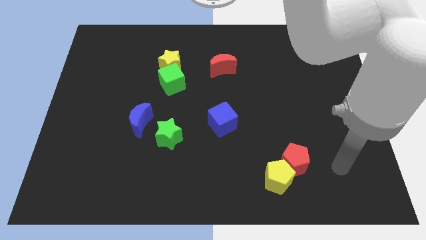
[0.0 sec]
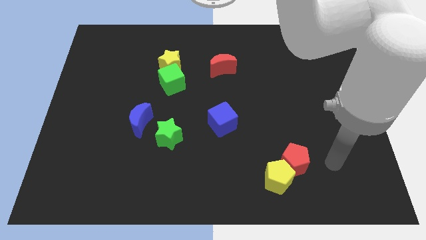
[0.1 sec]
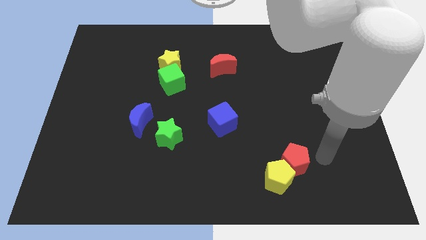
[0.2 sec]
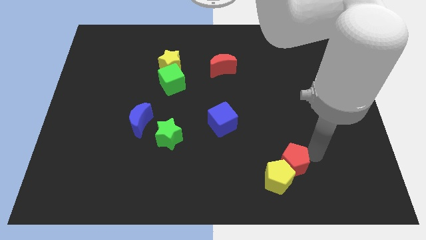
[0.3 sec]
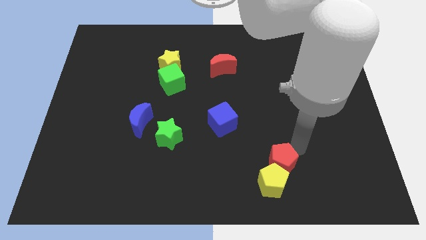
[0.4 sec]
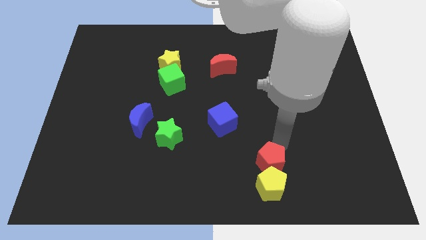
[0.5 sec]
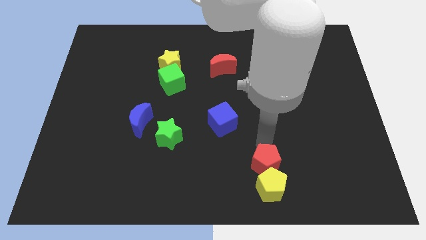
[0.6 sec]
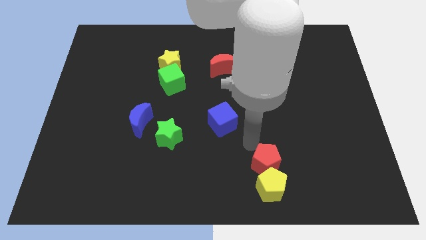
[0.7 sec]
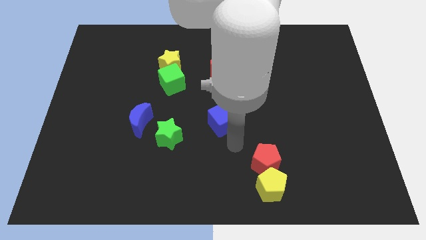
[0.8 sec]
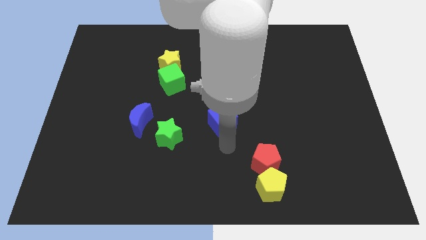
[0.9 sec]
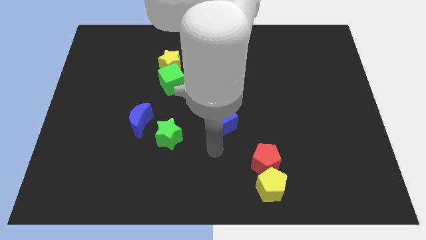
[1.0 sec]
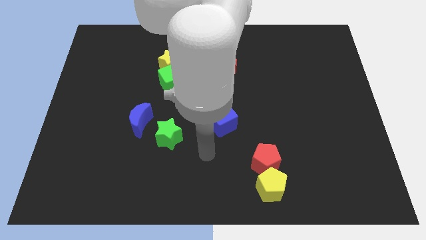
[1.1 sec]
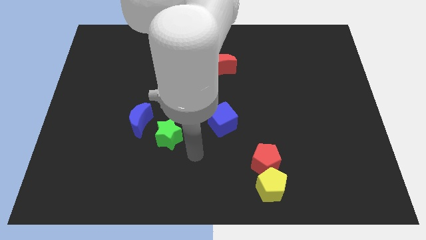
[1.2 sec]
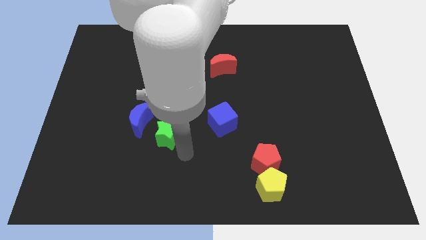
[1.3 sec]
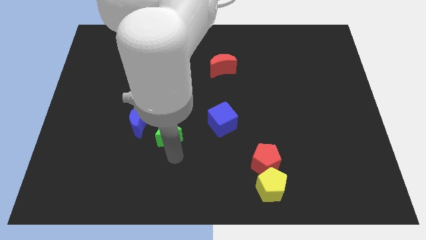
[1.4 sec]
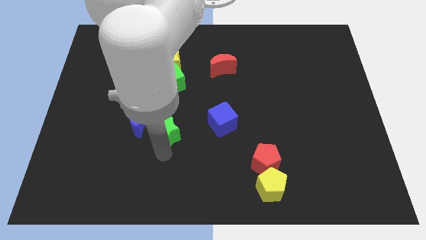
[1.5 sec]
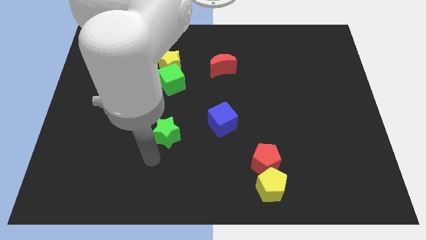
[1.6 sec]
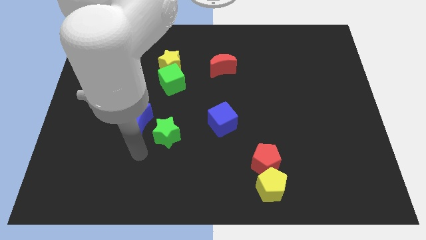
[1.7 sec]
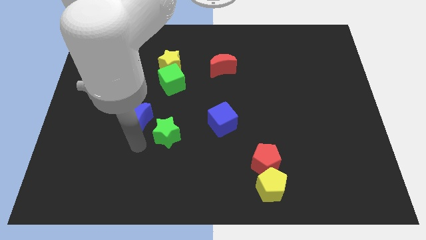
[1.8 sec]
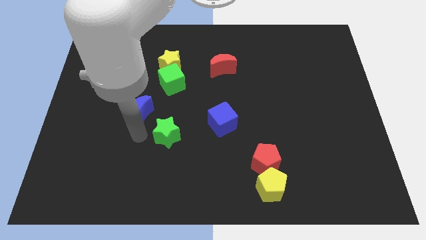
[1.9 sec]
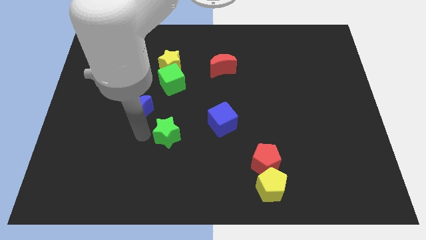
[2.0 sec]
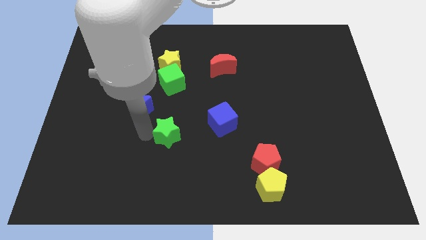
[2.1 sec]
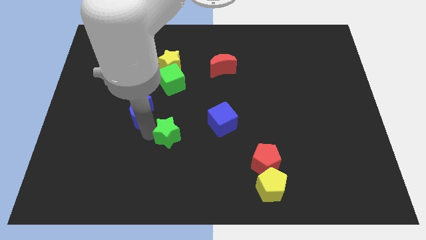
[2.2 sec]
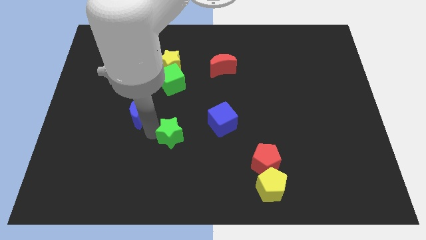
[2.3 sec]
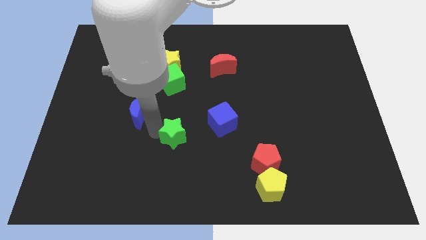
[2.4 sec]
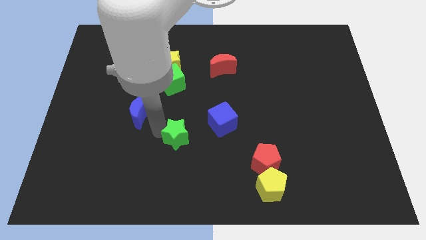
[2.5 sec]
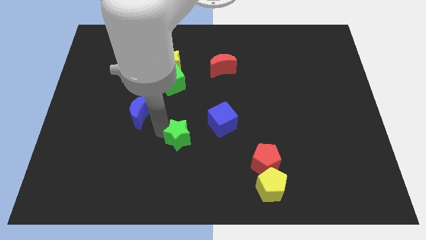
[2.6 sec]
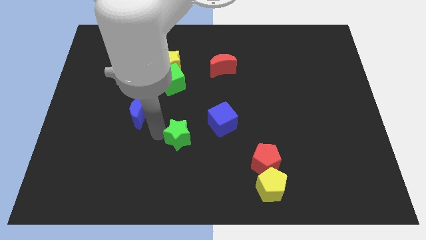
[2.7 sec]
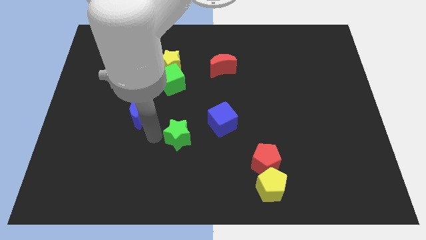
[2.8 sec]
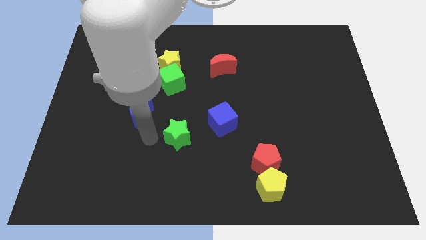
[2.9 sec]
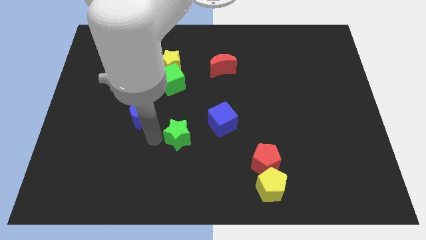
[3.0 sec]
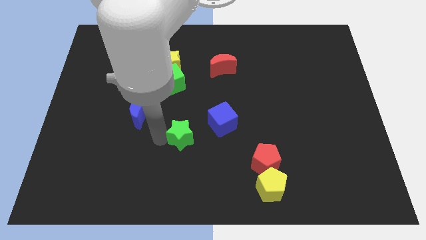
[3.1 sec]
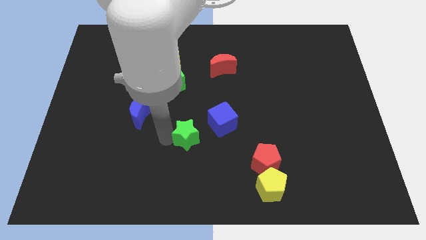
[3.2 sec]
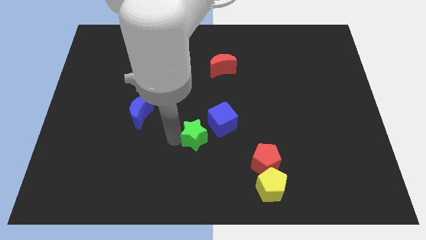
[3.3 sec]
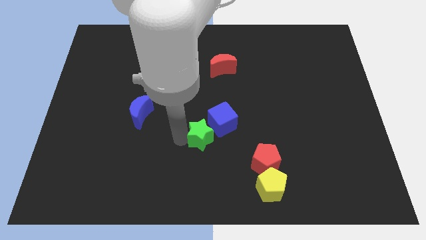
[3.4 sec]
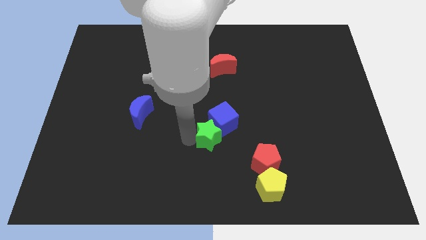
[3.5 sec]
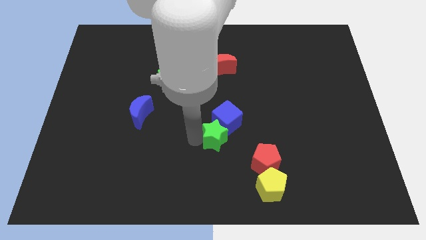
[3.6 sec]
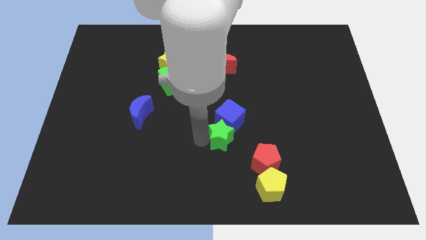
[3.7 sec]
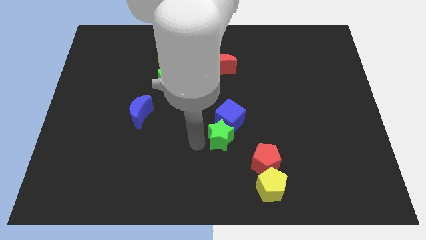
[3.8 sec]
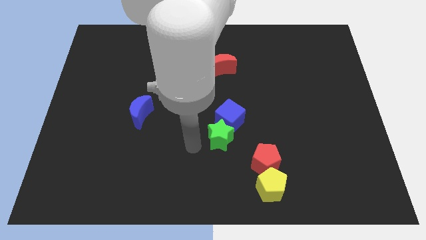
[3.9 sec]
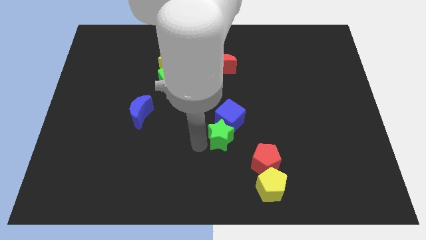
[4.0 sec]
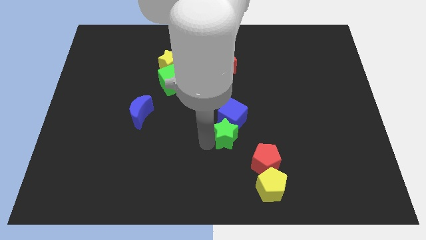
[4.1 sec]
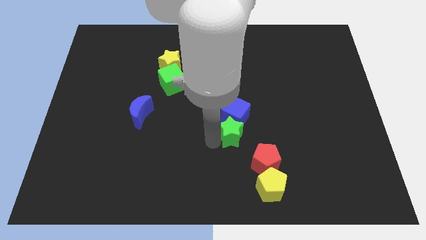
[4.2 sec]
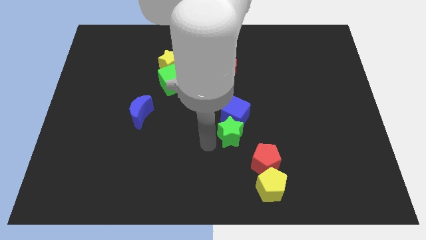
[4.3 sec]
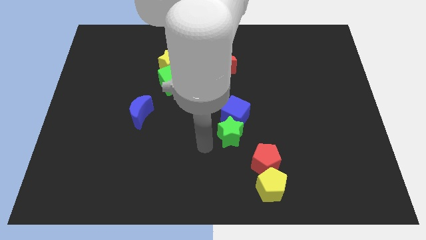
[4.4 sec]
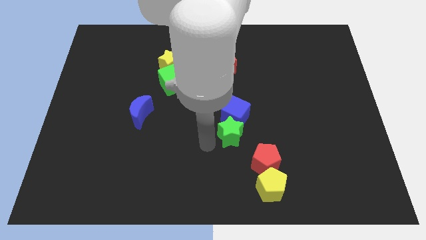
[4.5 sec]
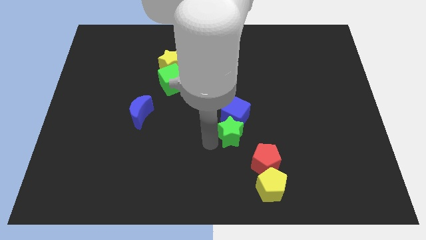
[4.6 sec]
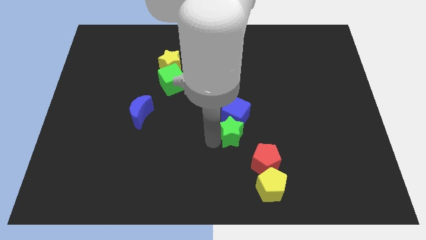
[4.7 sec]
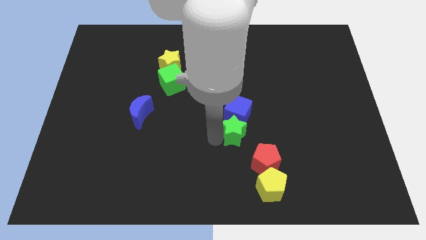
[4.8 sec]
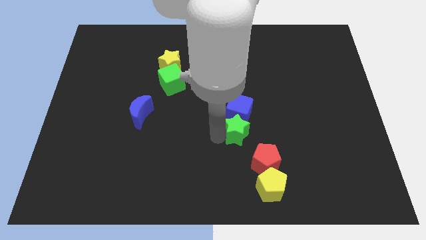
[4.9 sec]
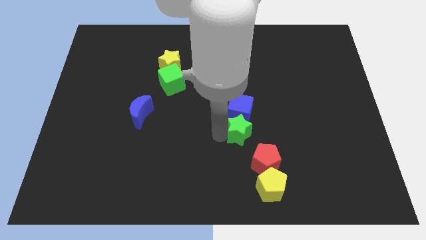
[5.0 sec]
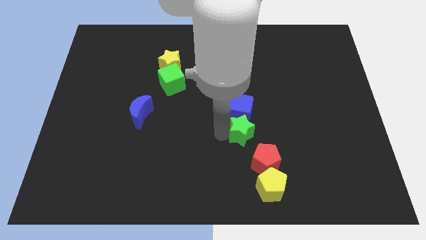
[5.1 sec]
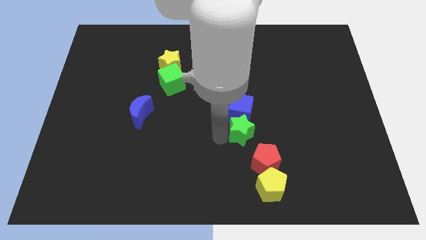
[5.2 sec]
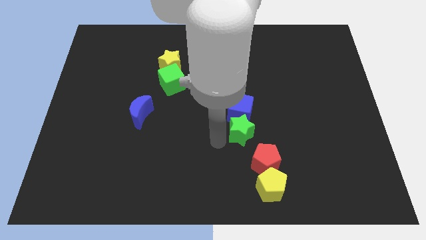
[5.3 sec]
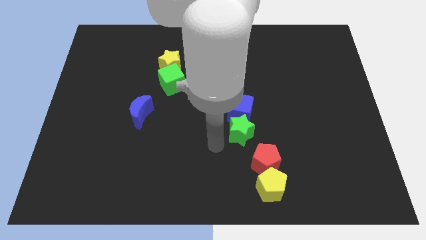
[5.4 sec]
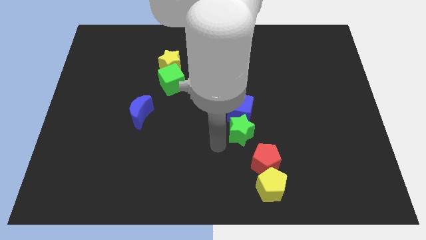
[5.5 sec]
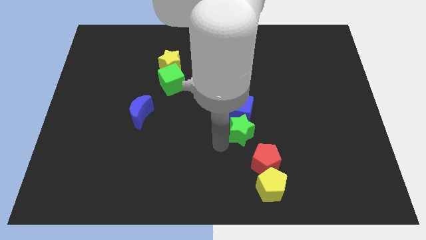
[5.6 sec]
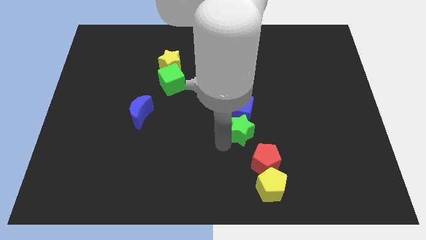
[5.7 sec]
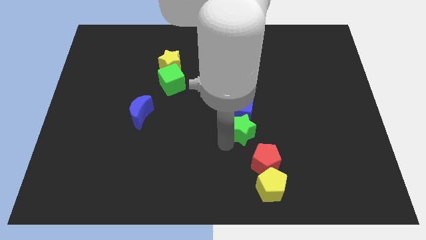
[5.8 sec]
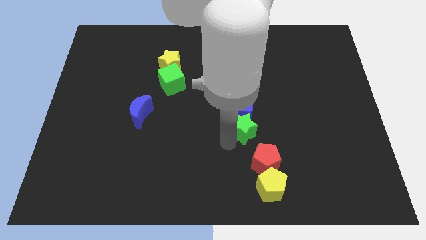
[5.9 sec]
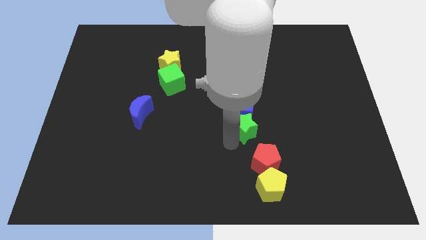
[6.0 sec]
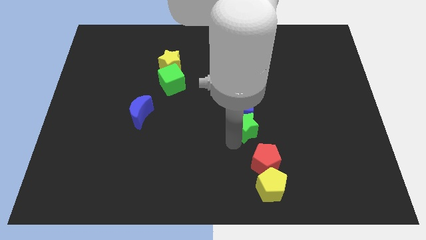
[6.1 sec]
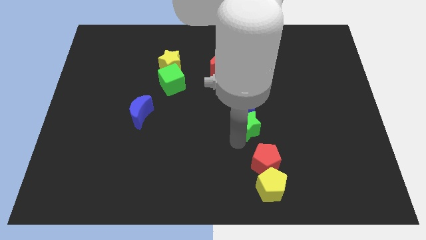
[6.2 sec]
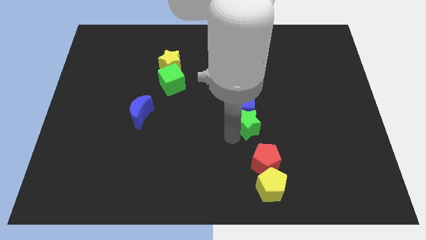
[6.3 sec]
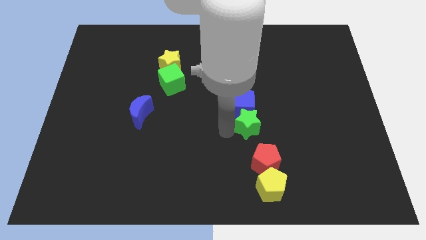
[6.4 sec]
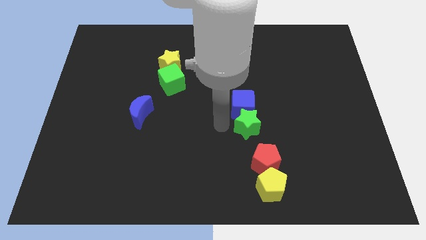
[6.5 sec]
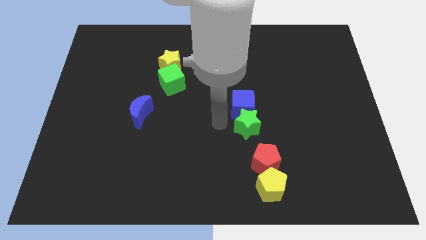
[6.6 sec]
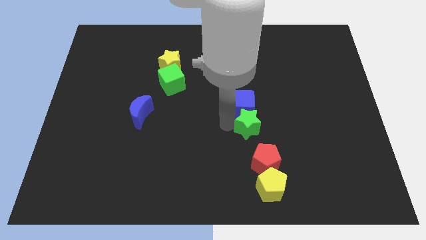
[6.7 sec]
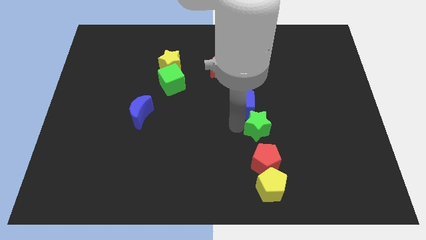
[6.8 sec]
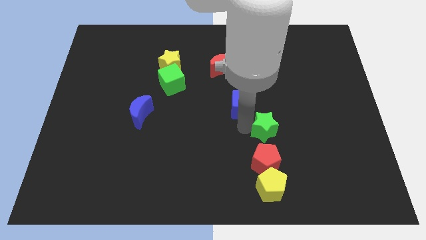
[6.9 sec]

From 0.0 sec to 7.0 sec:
move the green star right

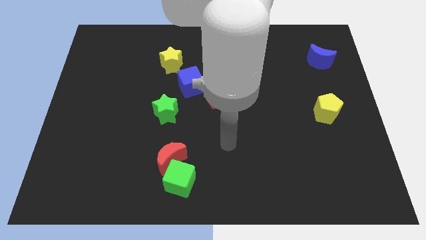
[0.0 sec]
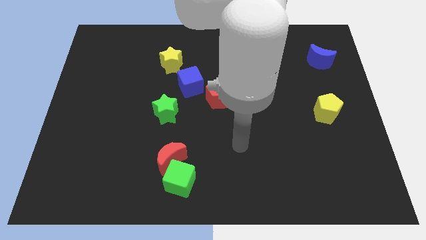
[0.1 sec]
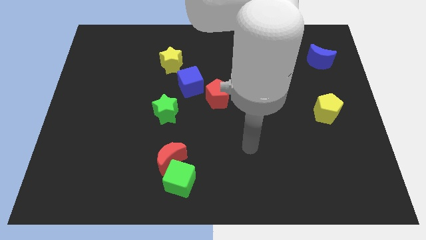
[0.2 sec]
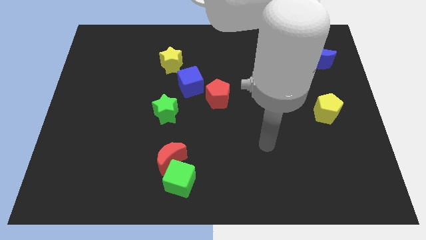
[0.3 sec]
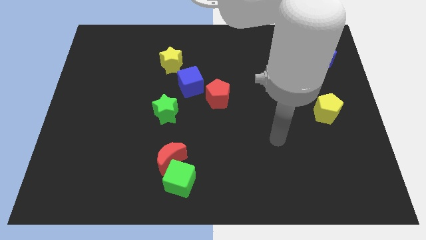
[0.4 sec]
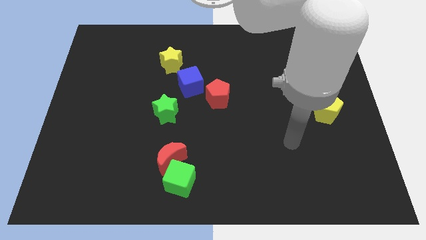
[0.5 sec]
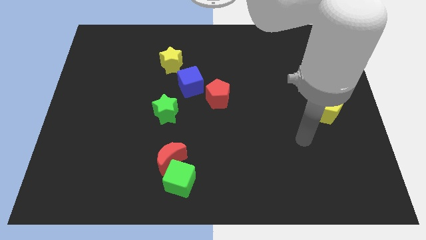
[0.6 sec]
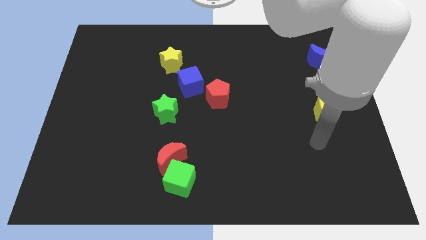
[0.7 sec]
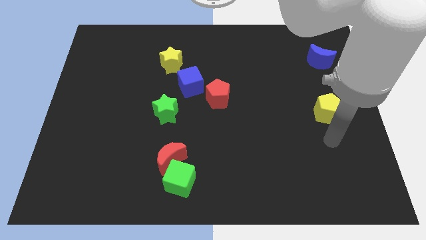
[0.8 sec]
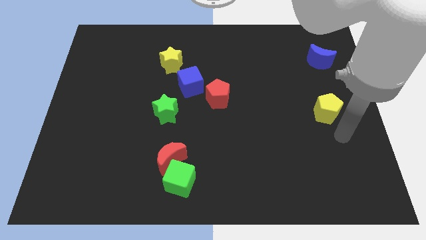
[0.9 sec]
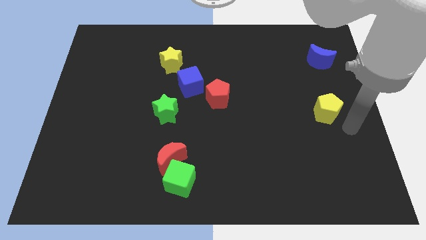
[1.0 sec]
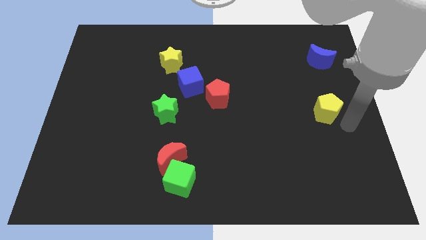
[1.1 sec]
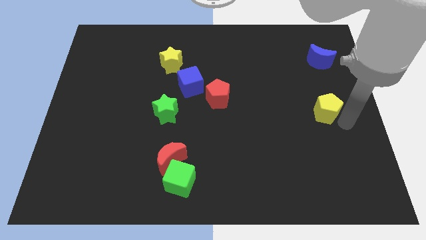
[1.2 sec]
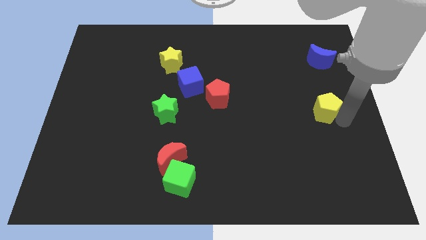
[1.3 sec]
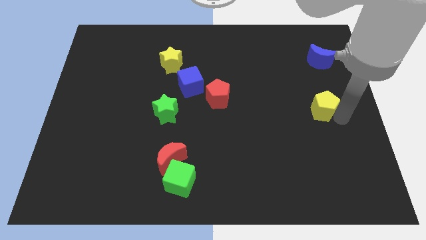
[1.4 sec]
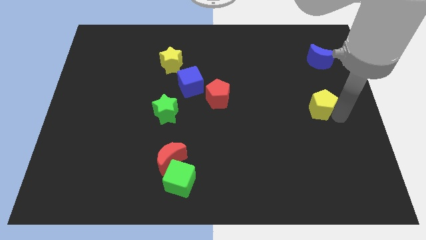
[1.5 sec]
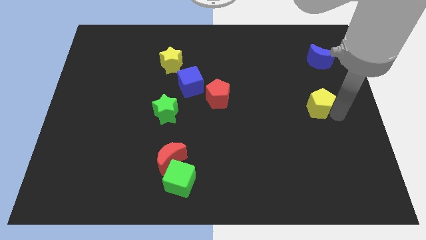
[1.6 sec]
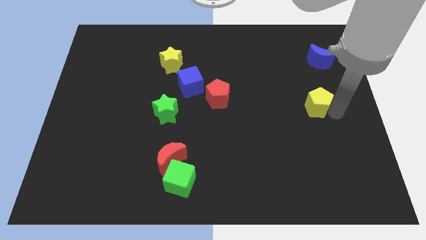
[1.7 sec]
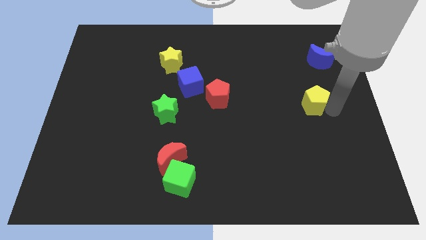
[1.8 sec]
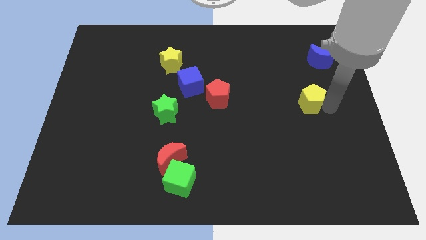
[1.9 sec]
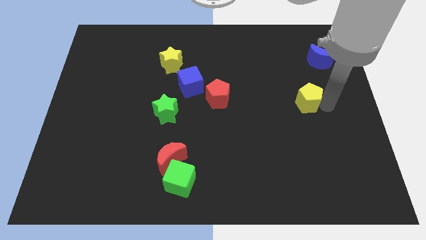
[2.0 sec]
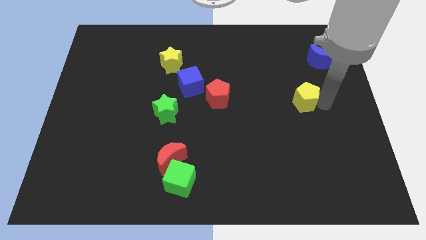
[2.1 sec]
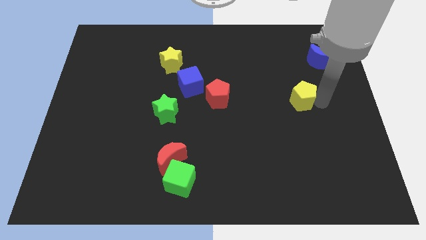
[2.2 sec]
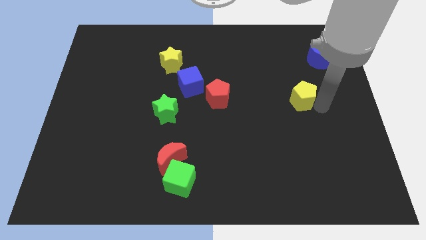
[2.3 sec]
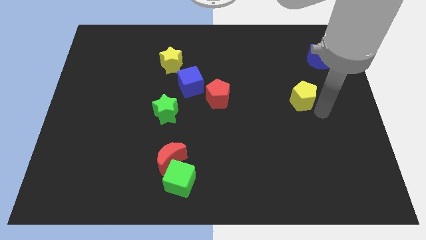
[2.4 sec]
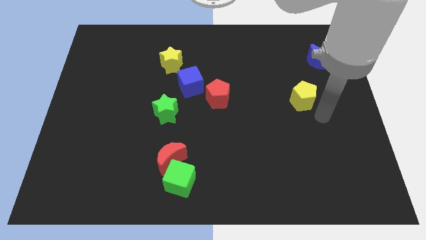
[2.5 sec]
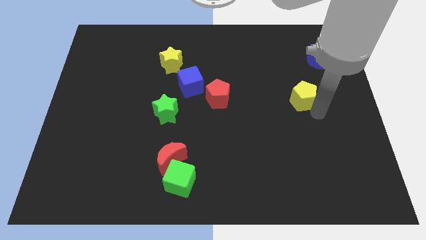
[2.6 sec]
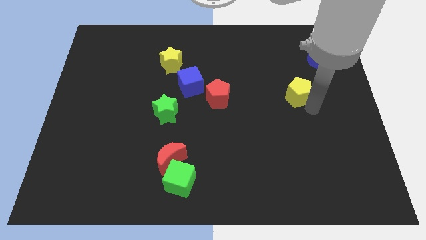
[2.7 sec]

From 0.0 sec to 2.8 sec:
push the yellow pentagon up and then to the left a little bit
